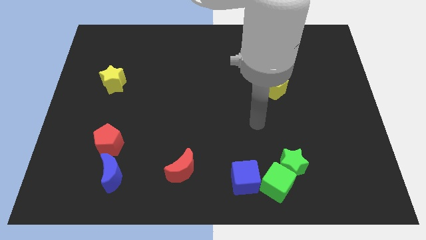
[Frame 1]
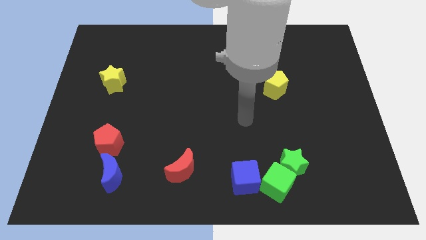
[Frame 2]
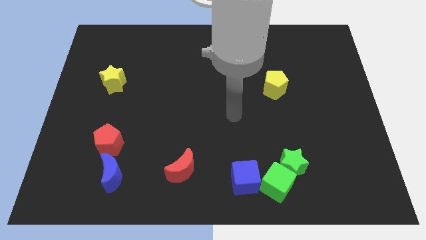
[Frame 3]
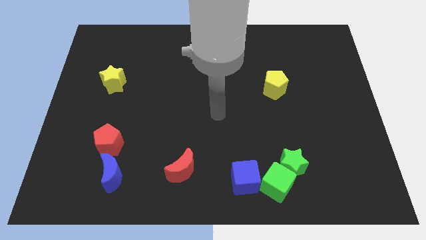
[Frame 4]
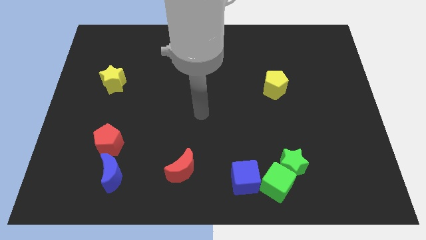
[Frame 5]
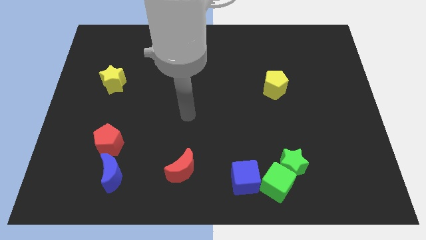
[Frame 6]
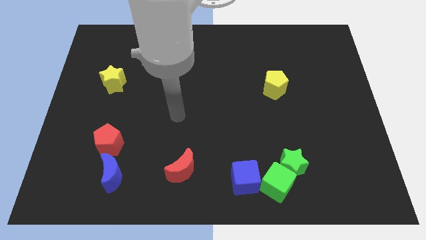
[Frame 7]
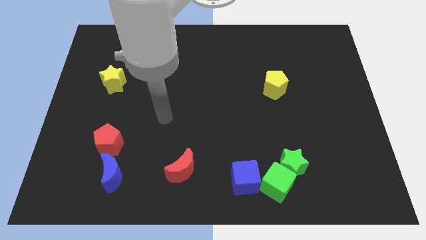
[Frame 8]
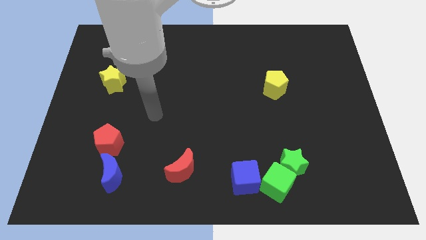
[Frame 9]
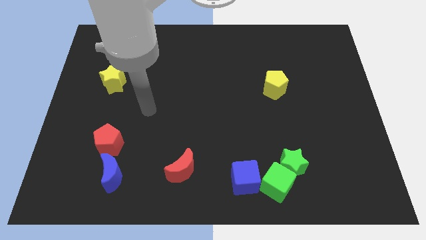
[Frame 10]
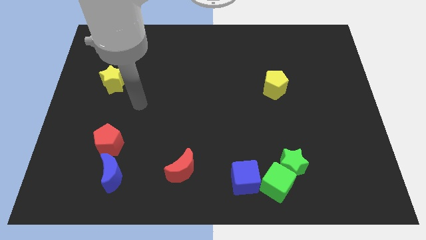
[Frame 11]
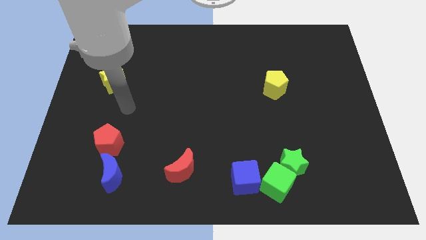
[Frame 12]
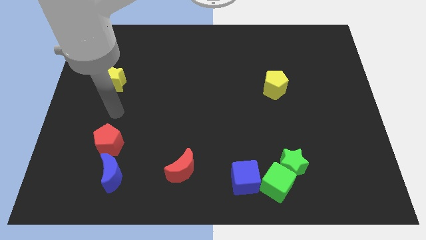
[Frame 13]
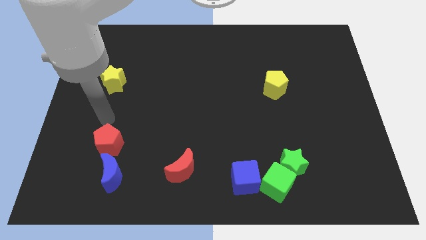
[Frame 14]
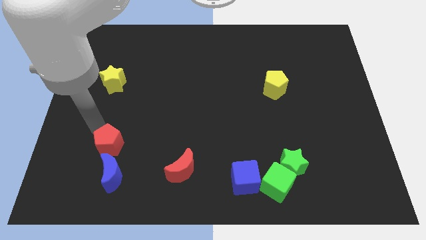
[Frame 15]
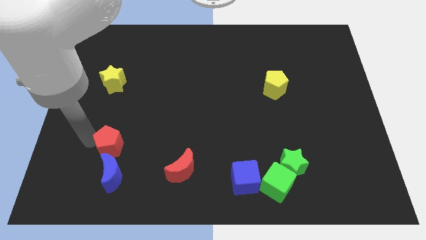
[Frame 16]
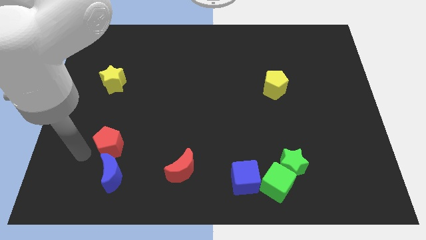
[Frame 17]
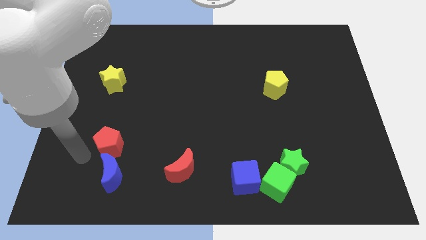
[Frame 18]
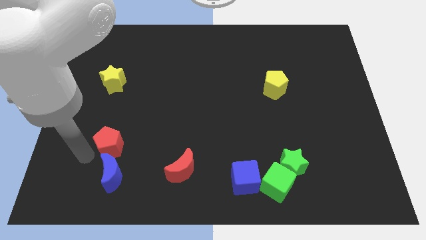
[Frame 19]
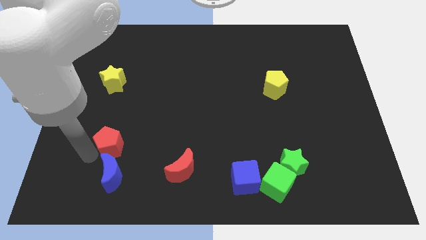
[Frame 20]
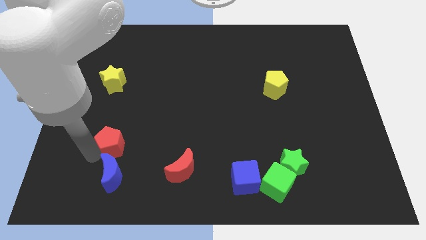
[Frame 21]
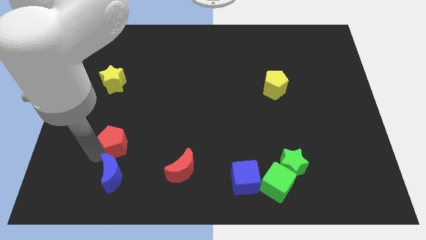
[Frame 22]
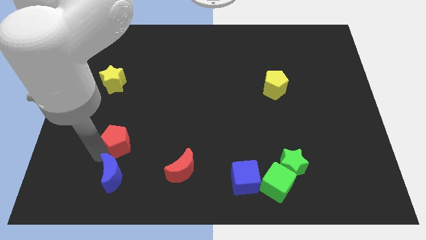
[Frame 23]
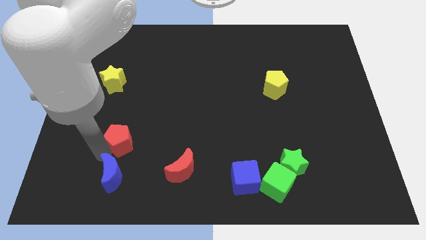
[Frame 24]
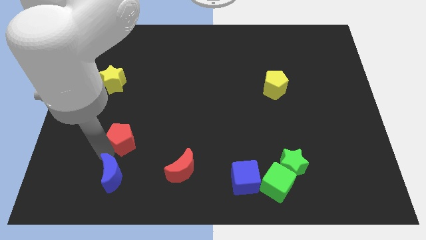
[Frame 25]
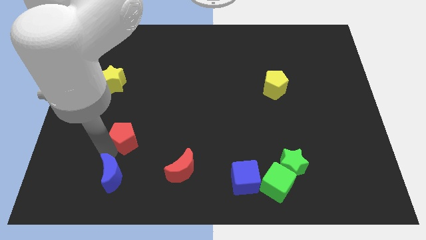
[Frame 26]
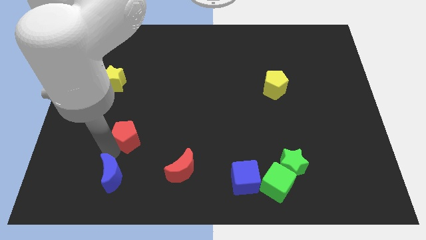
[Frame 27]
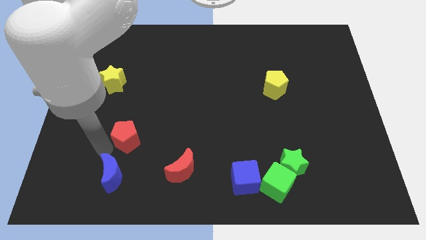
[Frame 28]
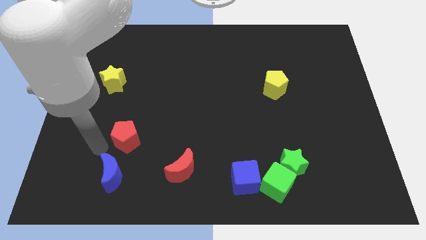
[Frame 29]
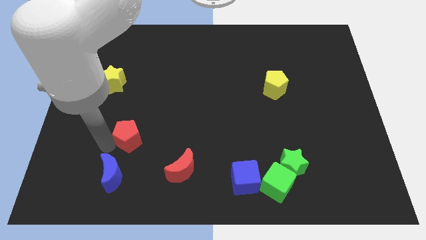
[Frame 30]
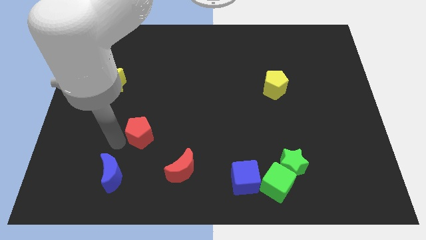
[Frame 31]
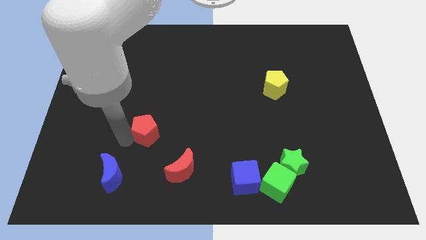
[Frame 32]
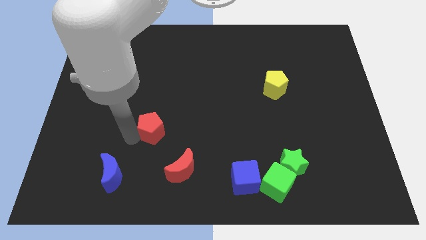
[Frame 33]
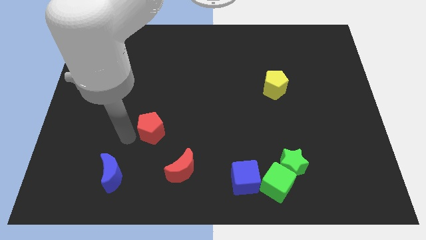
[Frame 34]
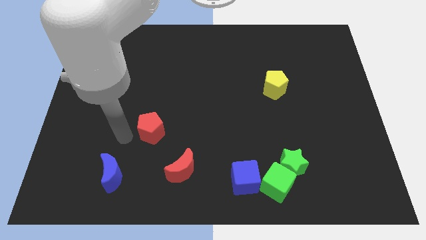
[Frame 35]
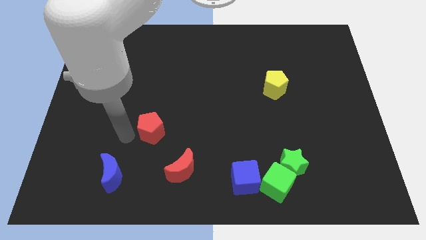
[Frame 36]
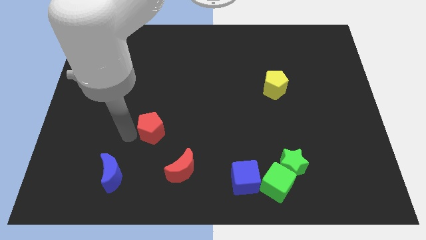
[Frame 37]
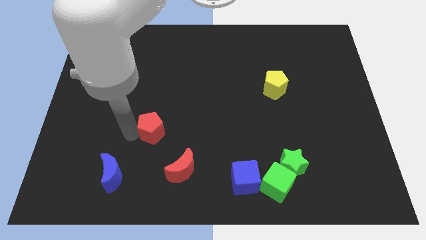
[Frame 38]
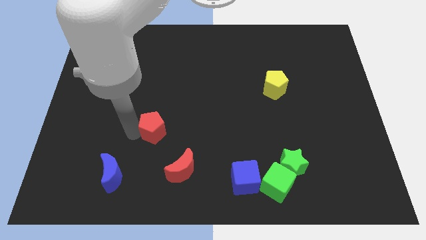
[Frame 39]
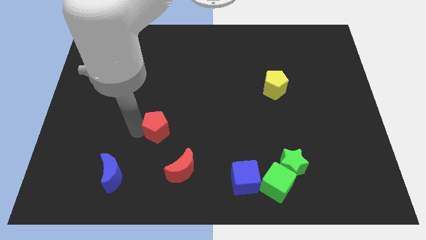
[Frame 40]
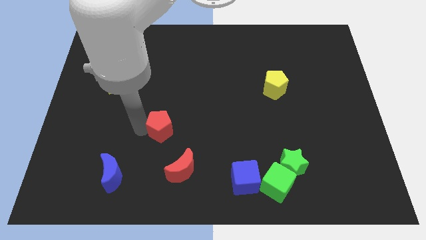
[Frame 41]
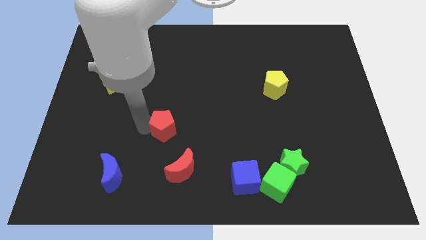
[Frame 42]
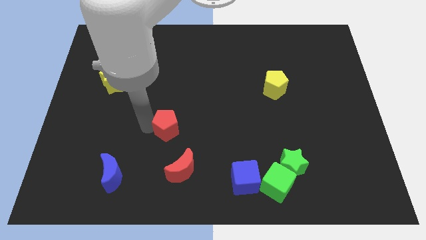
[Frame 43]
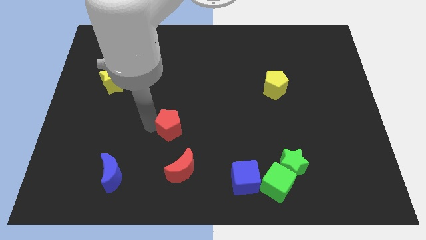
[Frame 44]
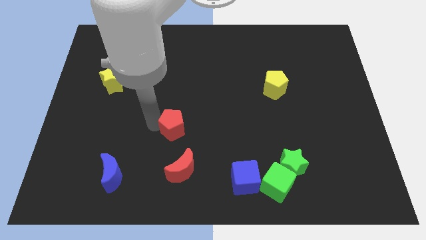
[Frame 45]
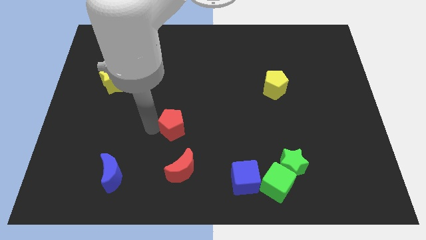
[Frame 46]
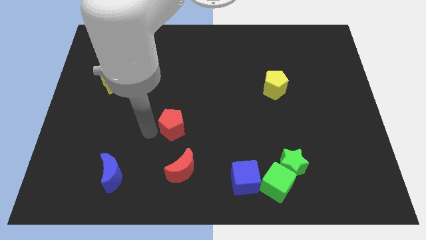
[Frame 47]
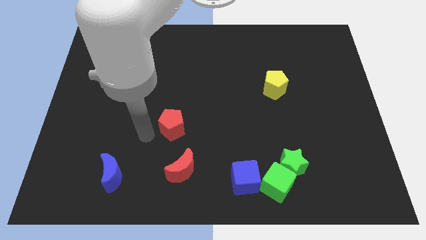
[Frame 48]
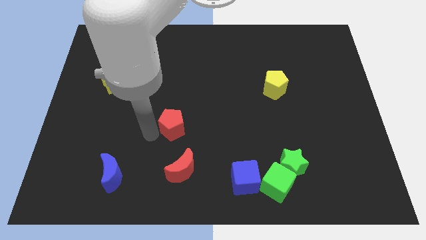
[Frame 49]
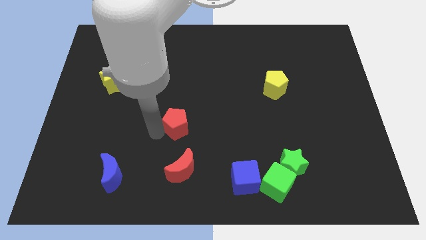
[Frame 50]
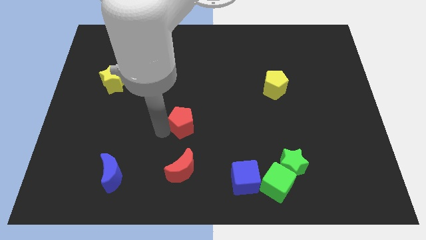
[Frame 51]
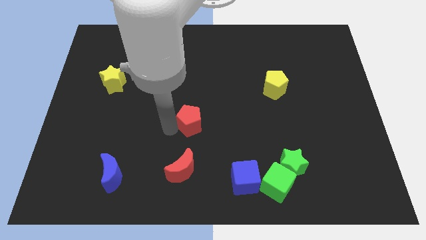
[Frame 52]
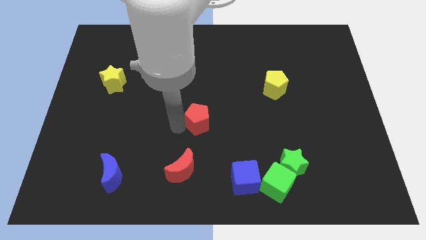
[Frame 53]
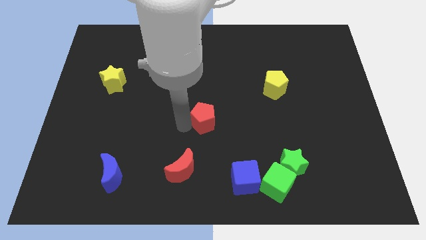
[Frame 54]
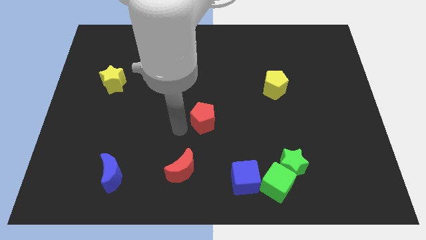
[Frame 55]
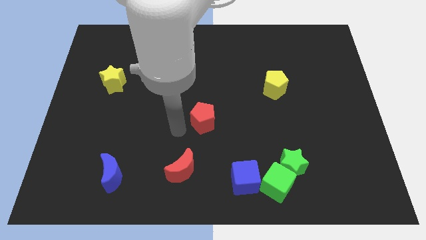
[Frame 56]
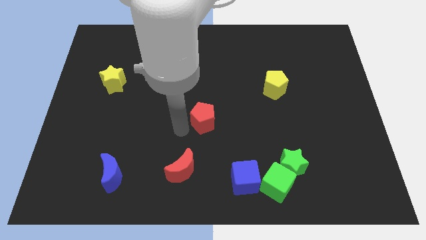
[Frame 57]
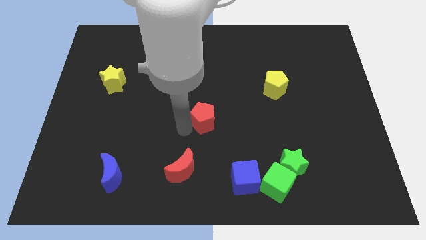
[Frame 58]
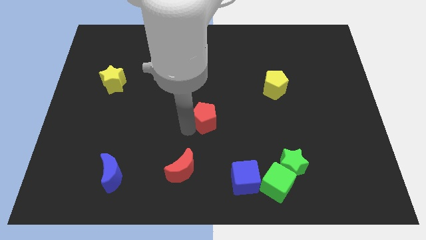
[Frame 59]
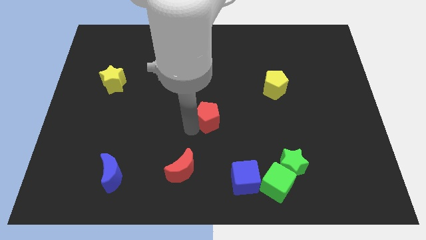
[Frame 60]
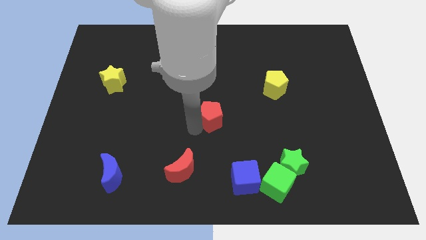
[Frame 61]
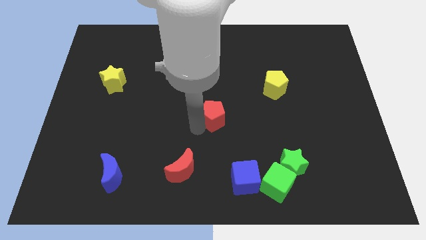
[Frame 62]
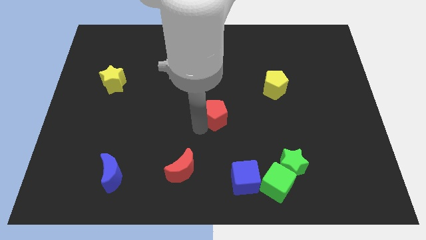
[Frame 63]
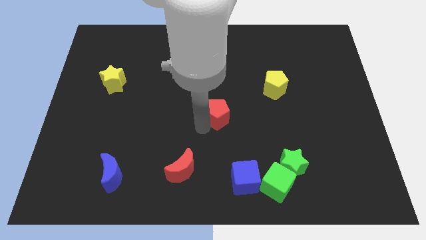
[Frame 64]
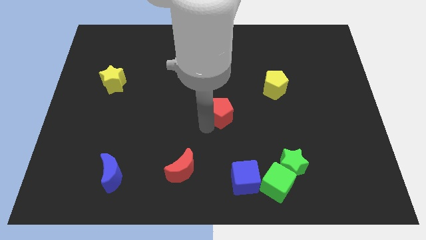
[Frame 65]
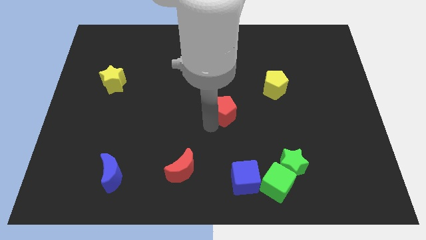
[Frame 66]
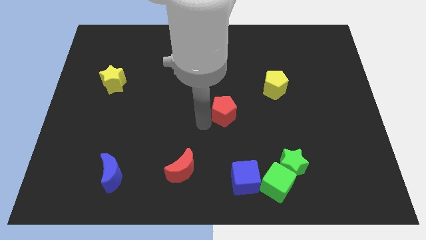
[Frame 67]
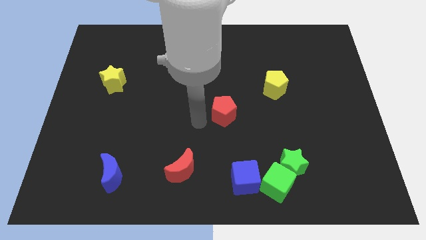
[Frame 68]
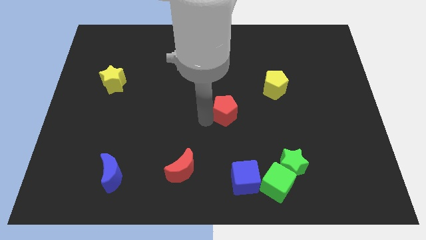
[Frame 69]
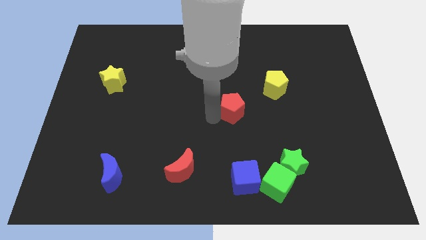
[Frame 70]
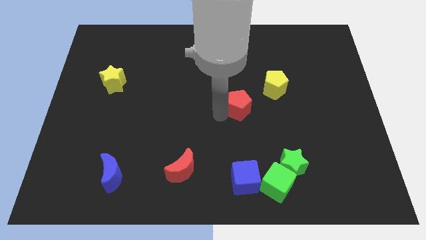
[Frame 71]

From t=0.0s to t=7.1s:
push the red pentagon to the bottom left side of the yellow pentagon

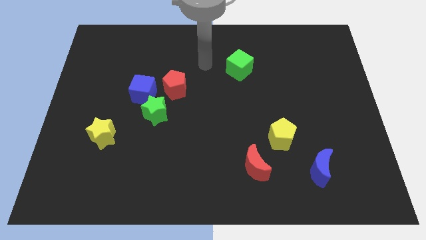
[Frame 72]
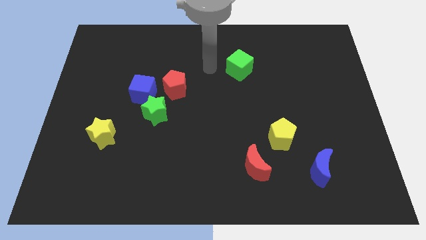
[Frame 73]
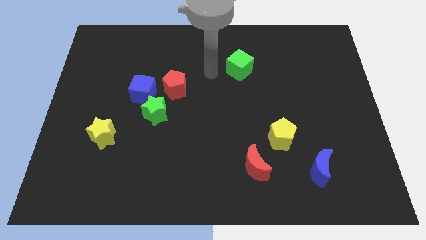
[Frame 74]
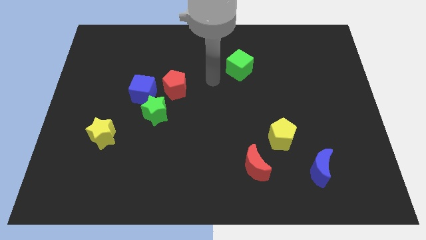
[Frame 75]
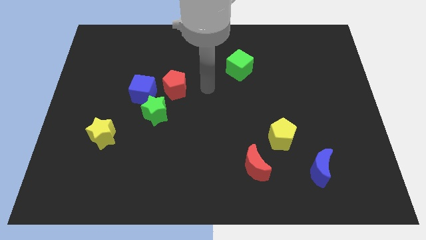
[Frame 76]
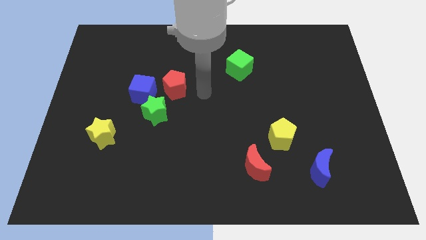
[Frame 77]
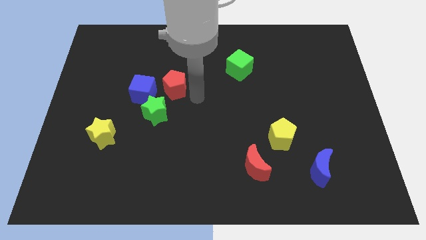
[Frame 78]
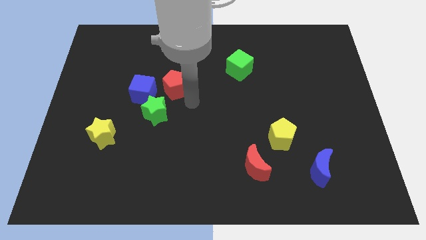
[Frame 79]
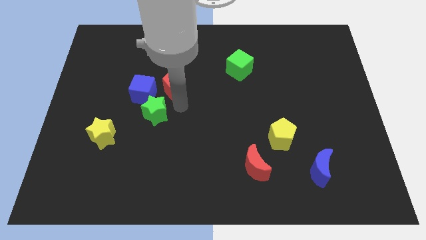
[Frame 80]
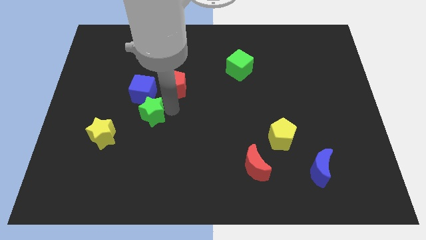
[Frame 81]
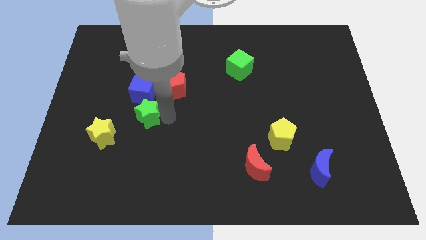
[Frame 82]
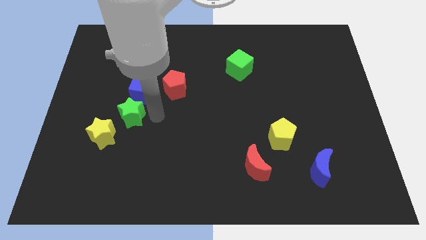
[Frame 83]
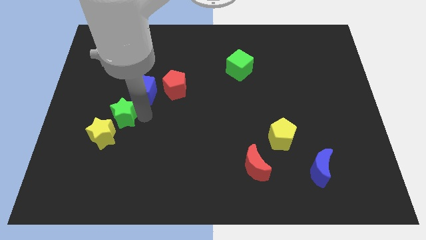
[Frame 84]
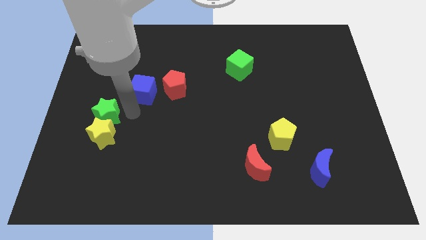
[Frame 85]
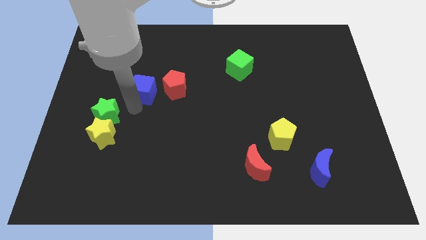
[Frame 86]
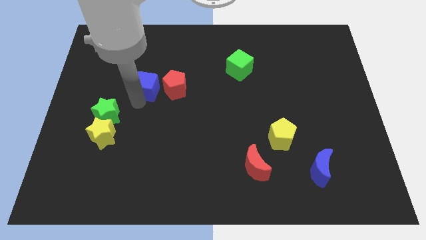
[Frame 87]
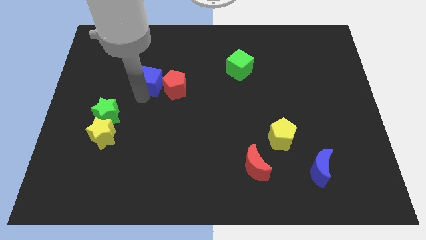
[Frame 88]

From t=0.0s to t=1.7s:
push the blue cube to the top left side of the red pentagon
